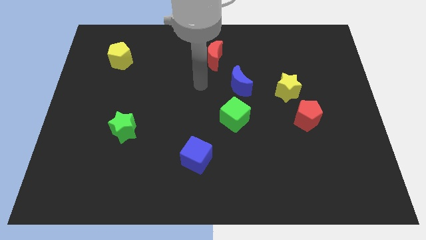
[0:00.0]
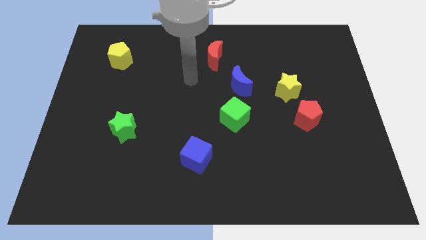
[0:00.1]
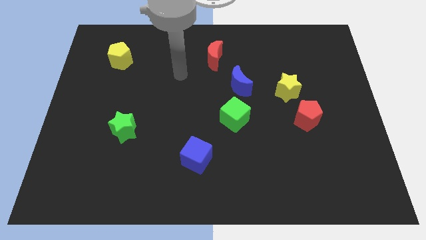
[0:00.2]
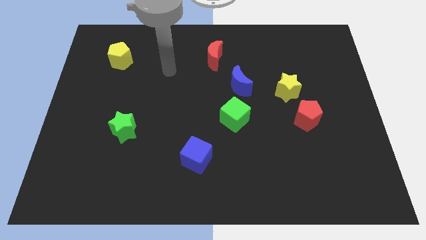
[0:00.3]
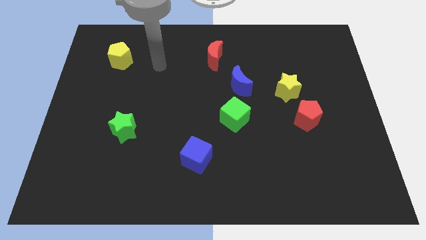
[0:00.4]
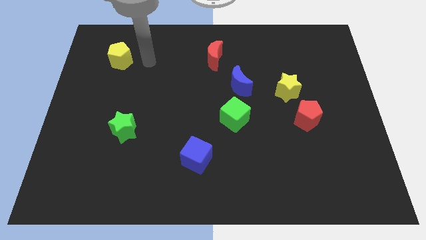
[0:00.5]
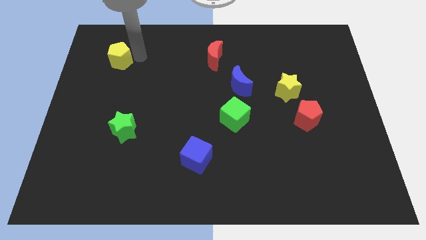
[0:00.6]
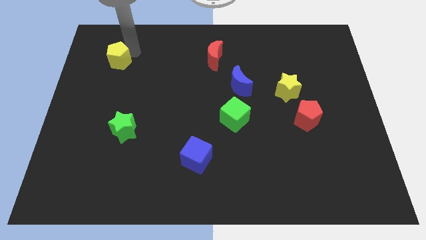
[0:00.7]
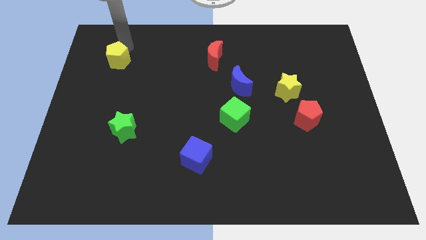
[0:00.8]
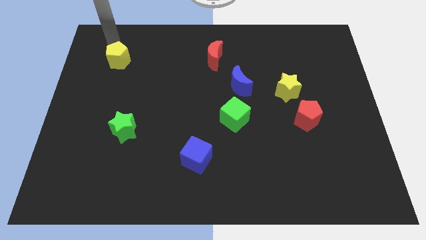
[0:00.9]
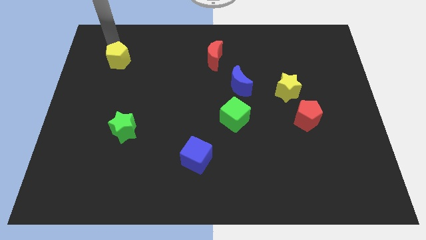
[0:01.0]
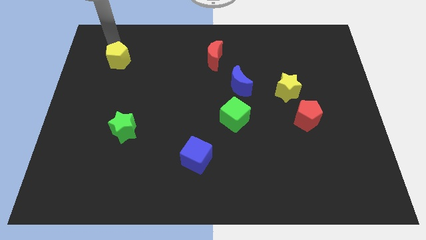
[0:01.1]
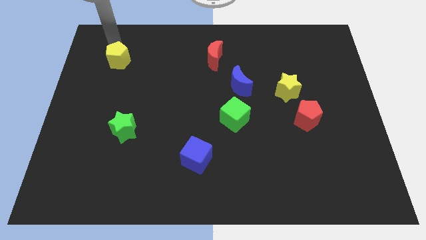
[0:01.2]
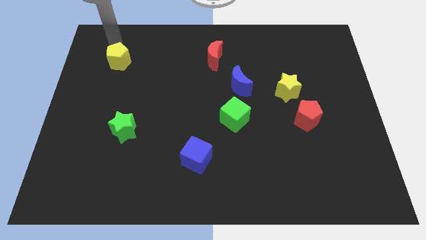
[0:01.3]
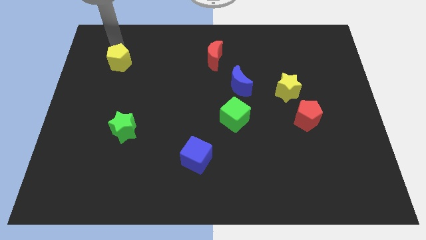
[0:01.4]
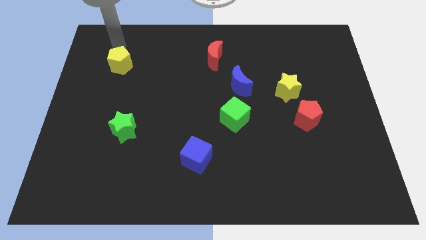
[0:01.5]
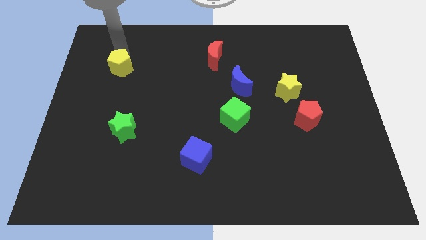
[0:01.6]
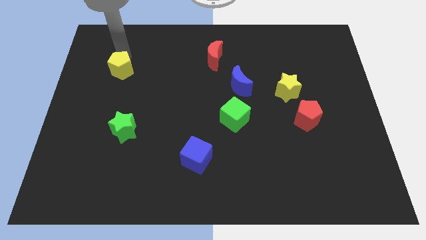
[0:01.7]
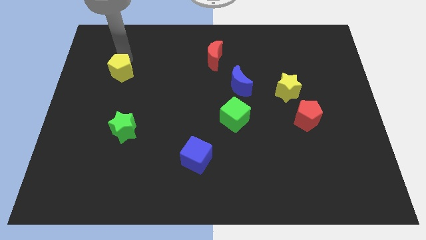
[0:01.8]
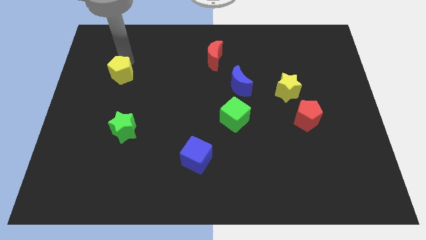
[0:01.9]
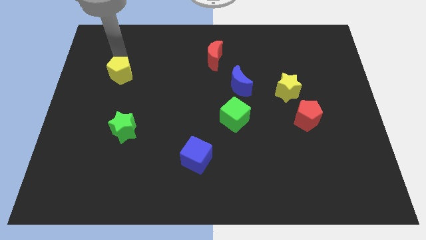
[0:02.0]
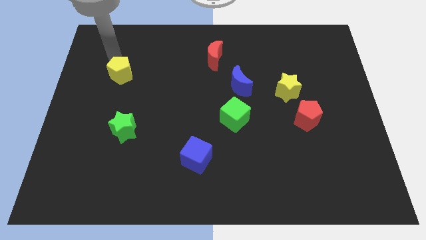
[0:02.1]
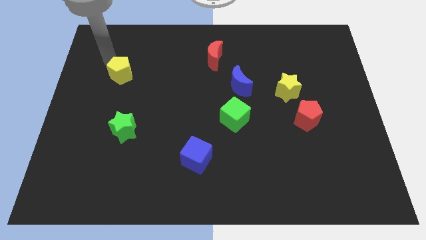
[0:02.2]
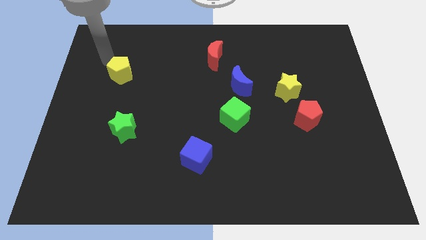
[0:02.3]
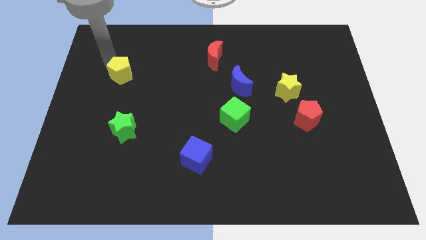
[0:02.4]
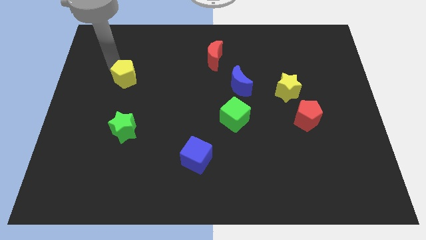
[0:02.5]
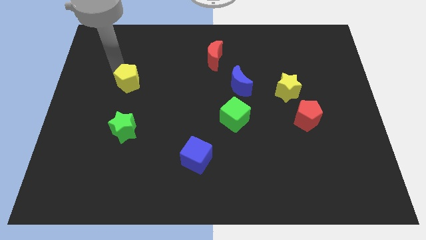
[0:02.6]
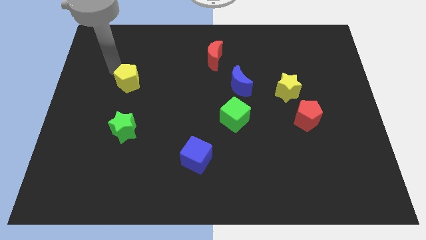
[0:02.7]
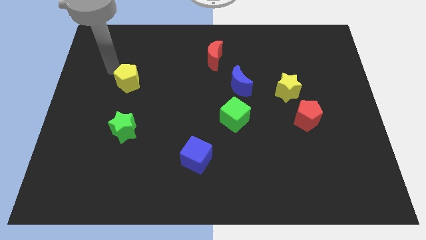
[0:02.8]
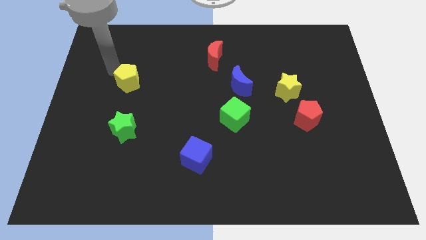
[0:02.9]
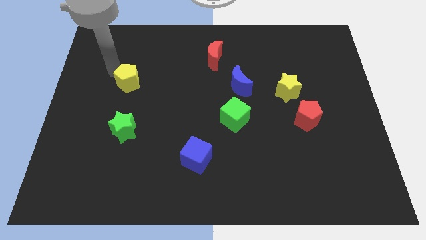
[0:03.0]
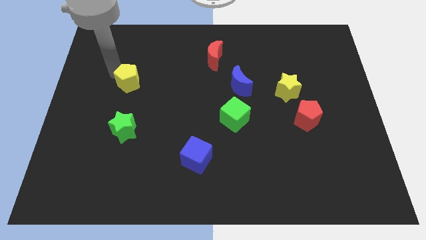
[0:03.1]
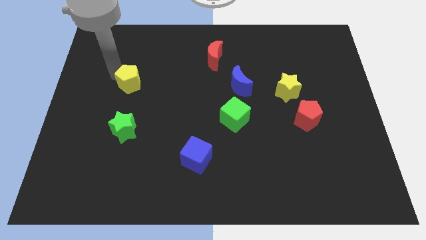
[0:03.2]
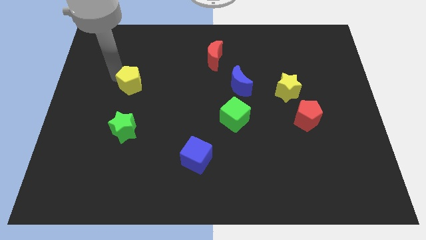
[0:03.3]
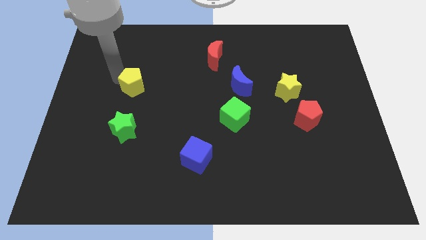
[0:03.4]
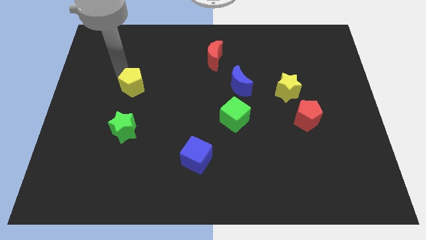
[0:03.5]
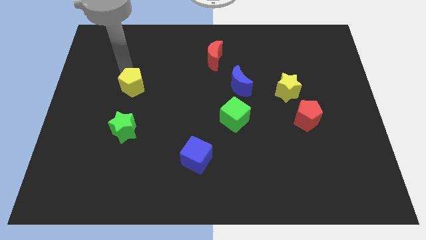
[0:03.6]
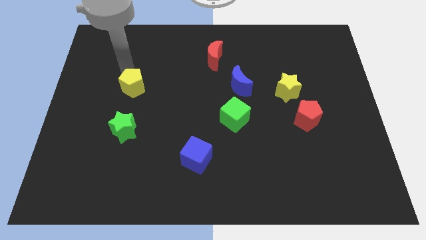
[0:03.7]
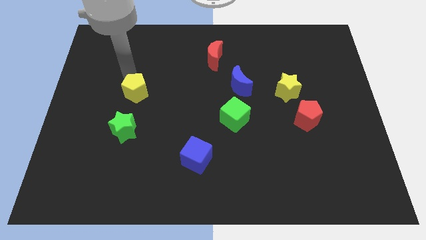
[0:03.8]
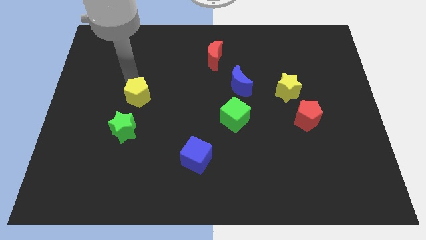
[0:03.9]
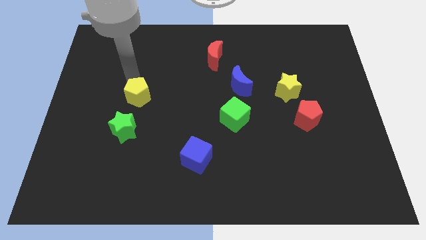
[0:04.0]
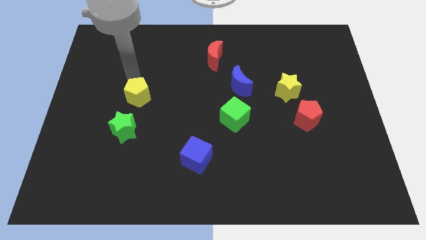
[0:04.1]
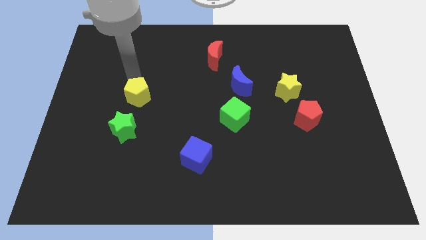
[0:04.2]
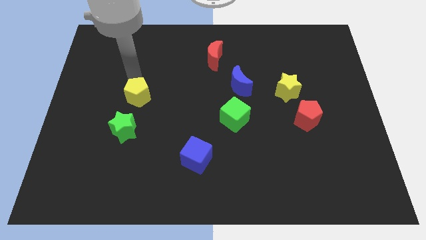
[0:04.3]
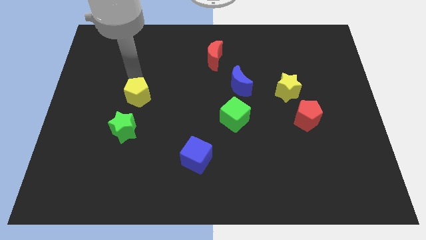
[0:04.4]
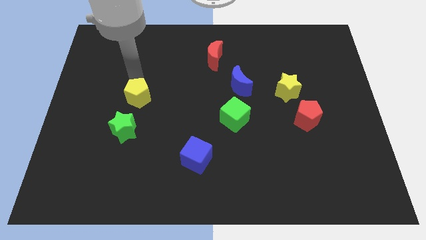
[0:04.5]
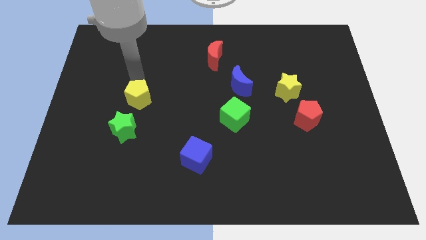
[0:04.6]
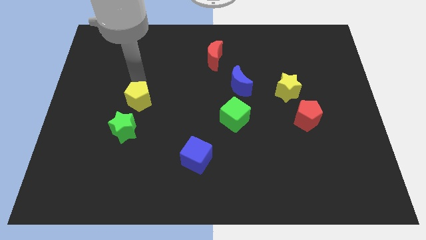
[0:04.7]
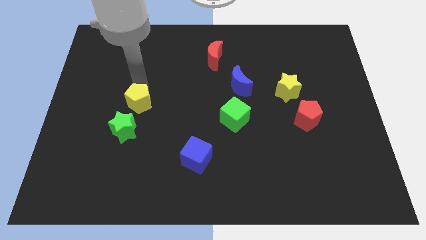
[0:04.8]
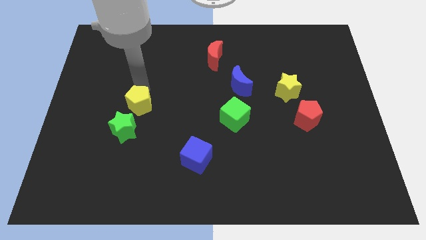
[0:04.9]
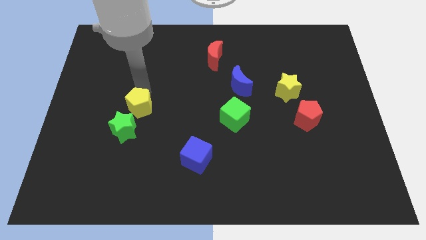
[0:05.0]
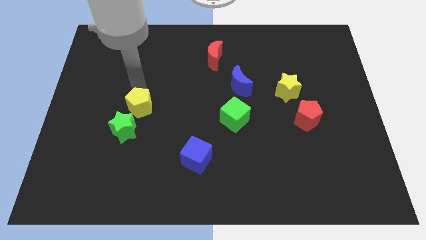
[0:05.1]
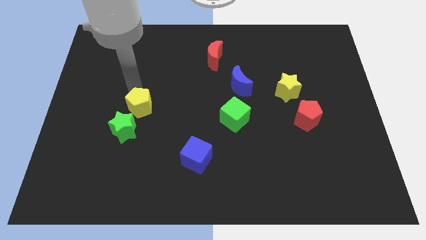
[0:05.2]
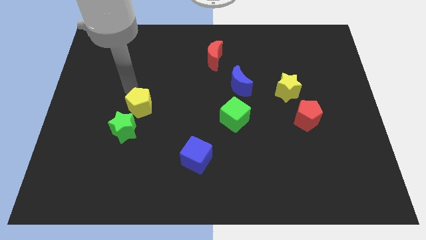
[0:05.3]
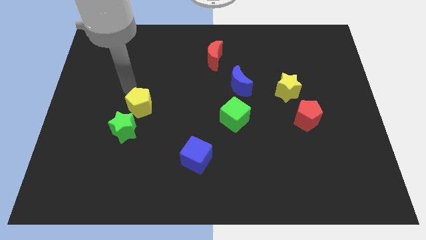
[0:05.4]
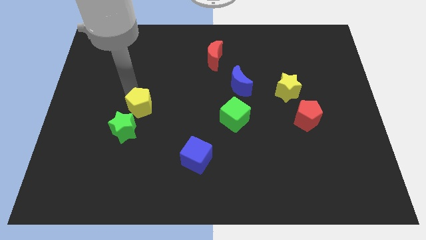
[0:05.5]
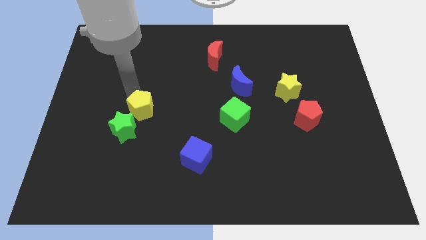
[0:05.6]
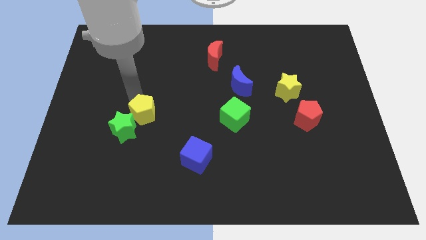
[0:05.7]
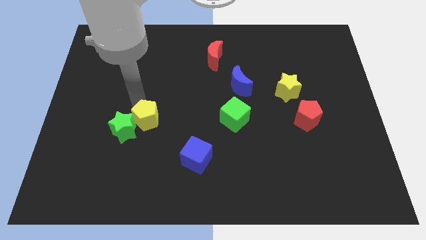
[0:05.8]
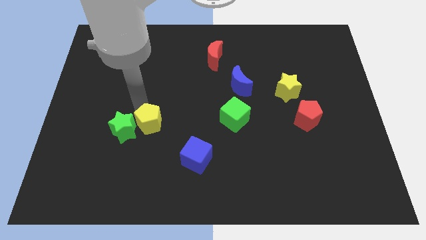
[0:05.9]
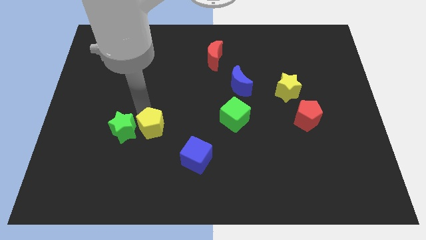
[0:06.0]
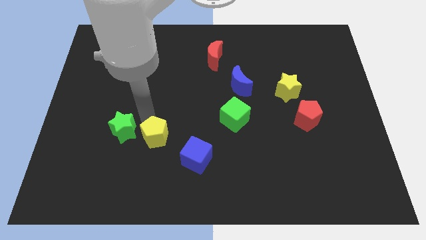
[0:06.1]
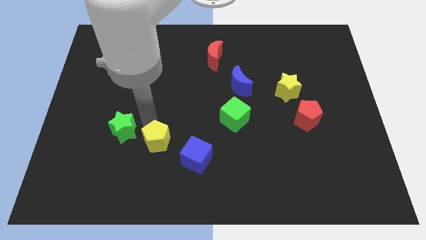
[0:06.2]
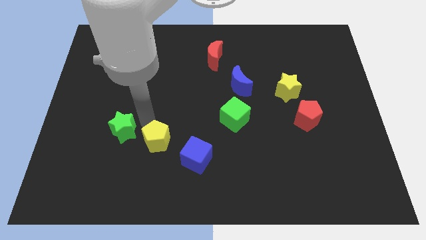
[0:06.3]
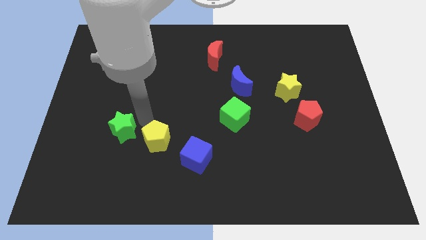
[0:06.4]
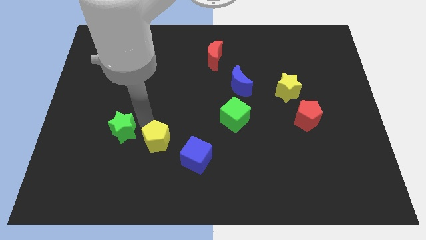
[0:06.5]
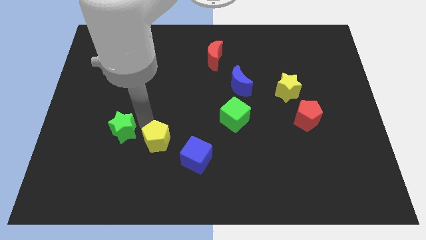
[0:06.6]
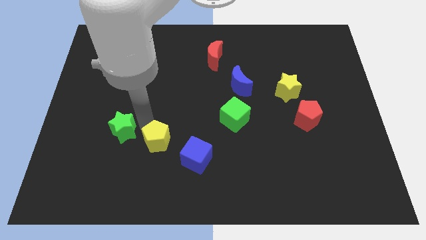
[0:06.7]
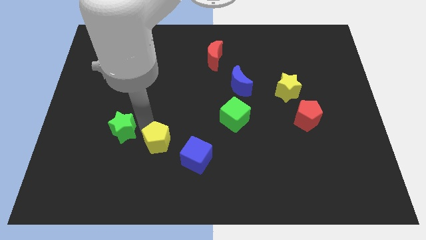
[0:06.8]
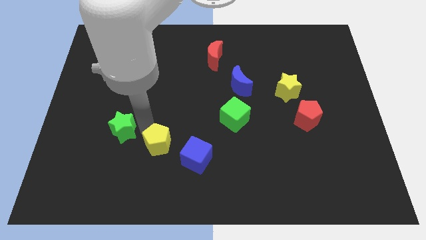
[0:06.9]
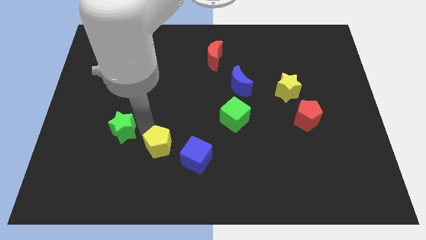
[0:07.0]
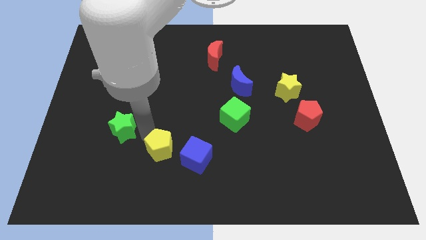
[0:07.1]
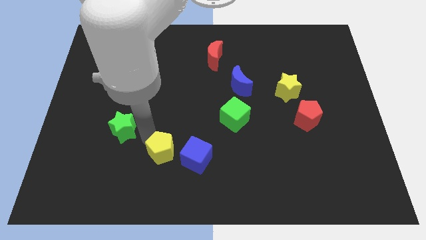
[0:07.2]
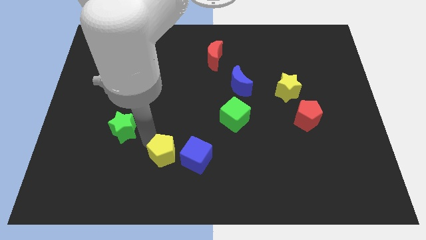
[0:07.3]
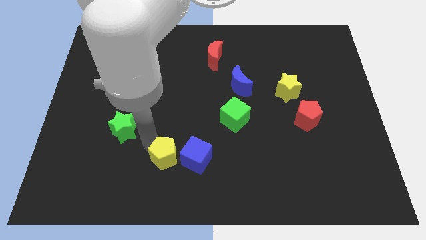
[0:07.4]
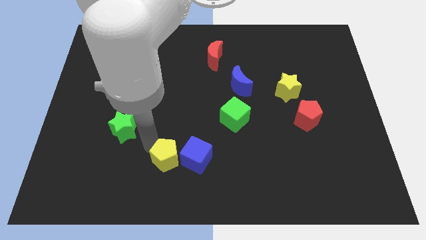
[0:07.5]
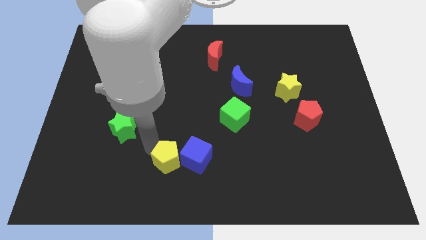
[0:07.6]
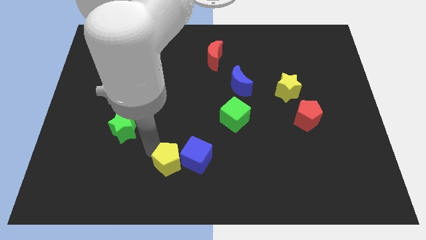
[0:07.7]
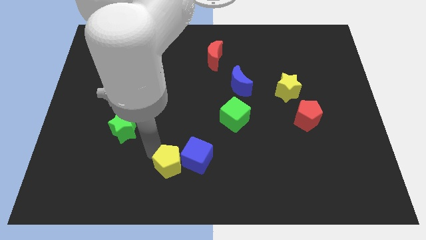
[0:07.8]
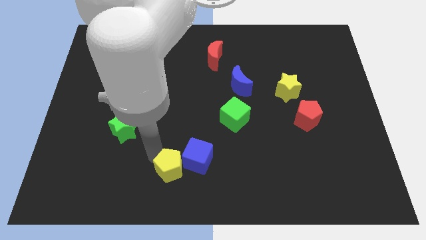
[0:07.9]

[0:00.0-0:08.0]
push the yellow pentagon to the bottom side
